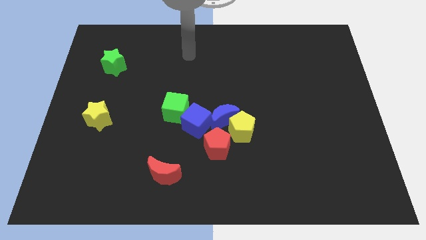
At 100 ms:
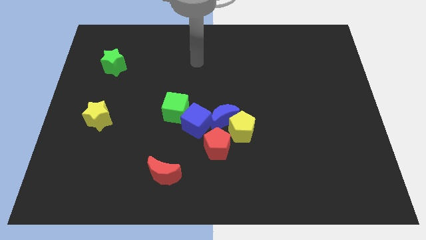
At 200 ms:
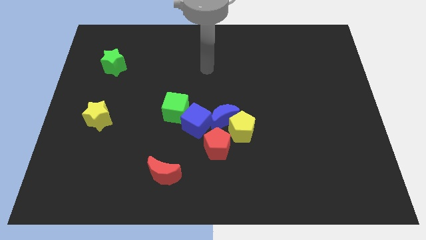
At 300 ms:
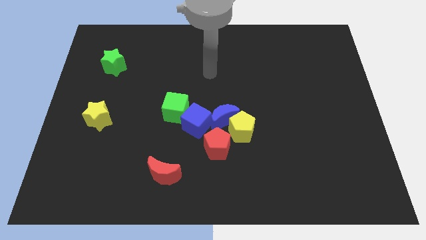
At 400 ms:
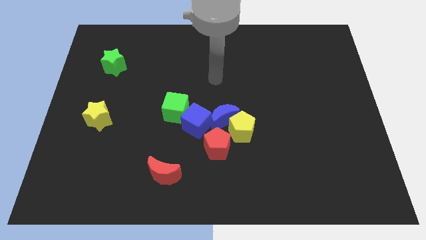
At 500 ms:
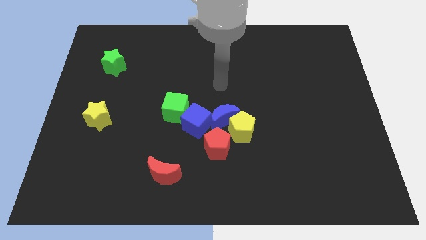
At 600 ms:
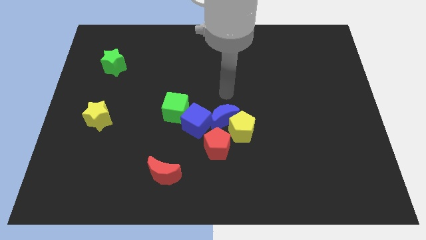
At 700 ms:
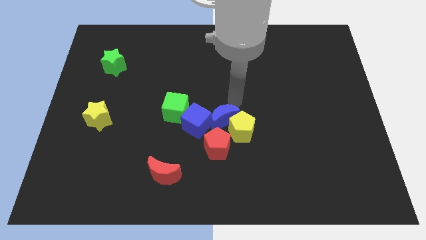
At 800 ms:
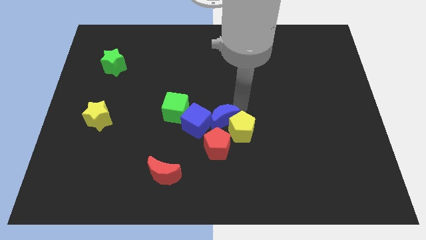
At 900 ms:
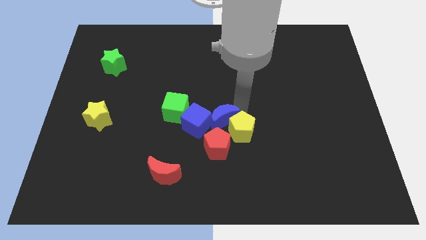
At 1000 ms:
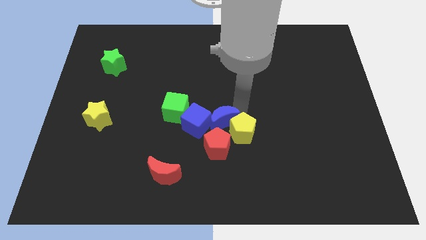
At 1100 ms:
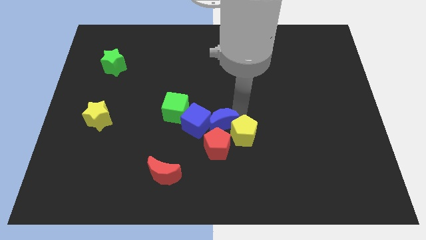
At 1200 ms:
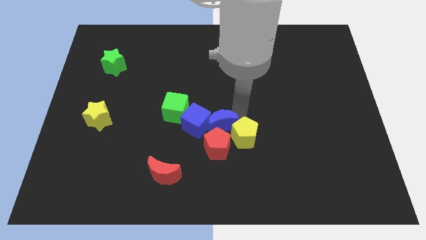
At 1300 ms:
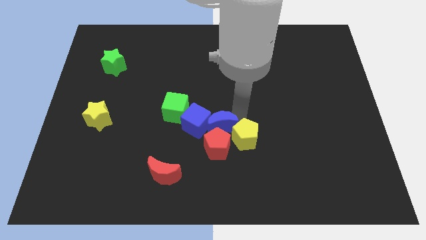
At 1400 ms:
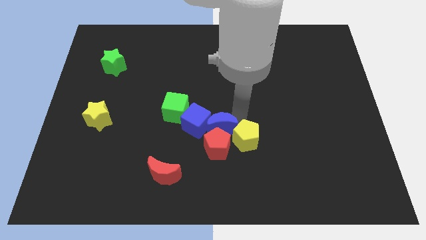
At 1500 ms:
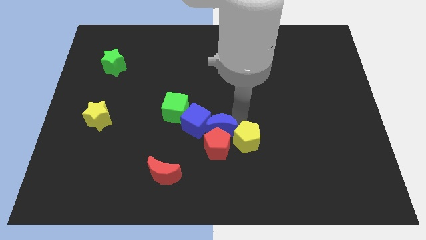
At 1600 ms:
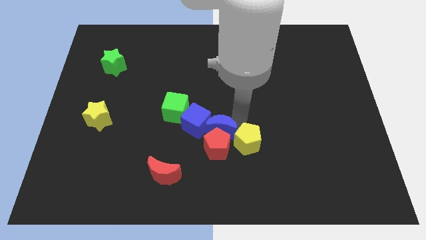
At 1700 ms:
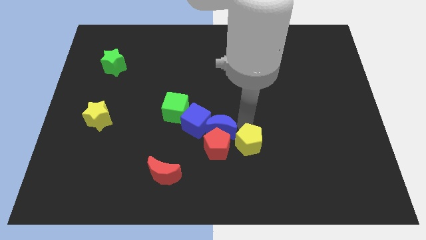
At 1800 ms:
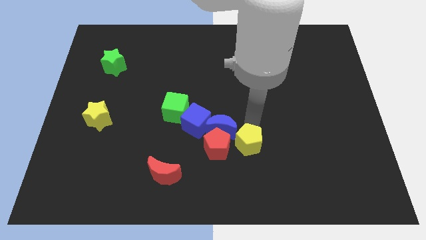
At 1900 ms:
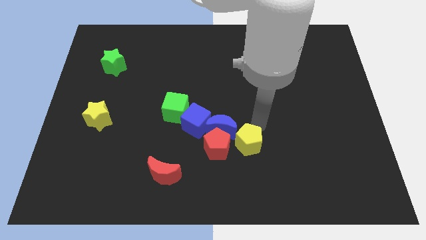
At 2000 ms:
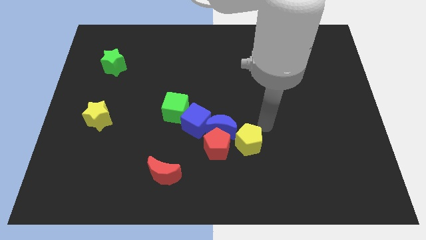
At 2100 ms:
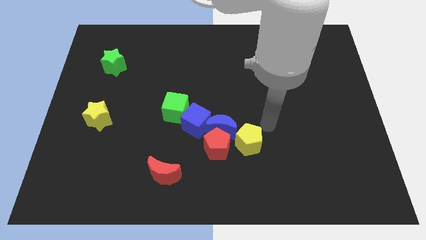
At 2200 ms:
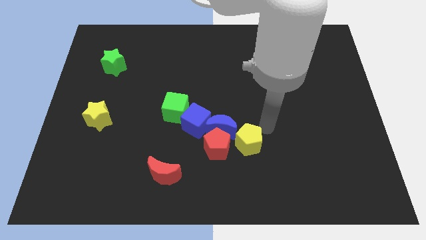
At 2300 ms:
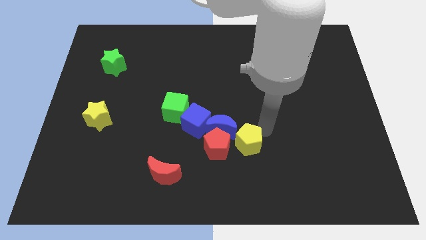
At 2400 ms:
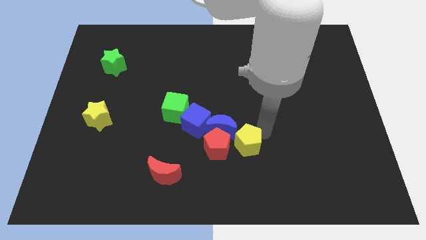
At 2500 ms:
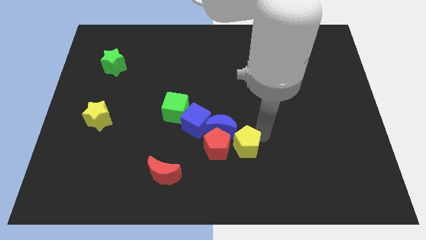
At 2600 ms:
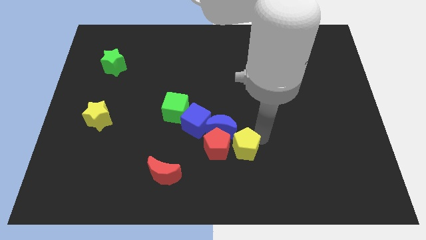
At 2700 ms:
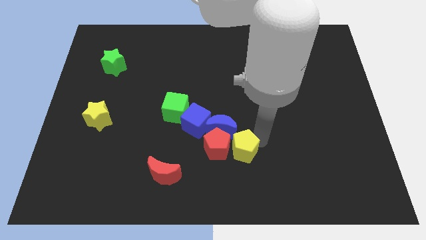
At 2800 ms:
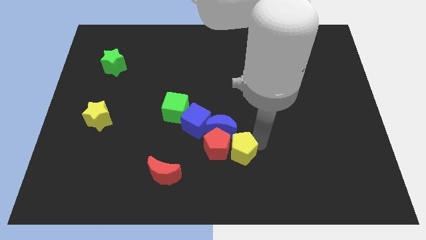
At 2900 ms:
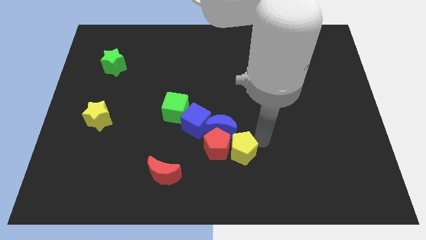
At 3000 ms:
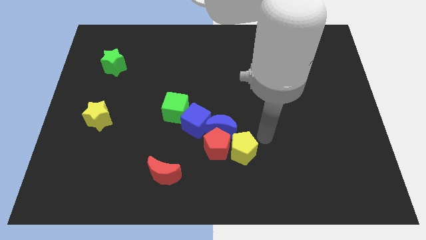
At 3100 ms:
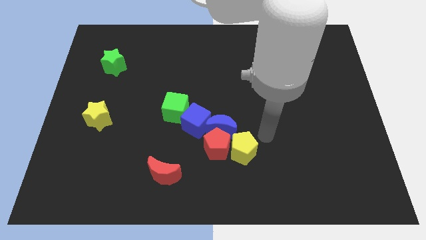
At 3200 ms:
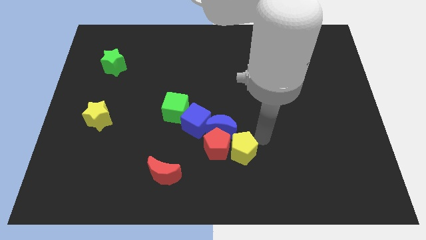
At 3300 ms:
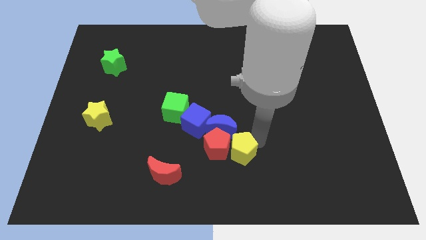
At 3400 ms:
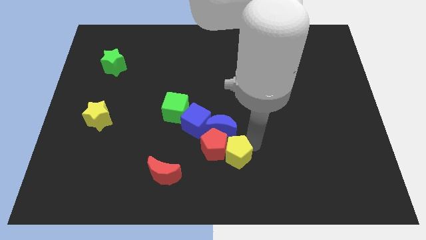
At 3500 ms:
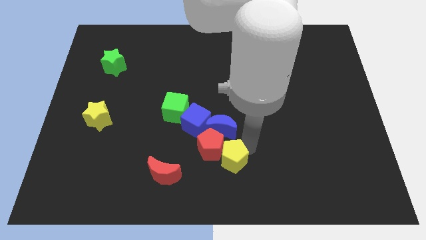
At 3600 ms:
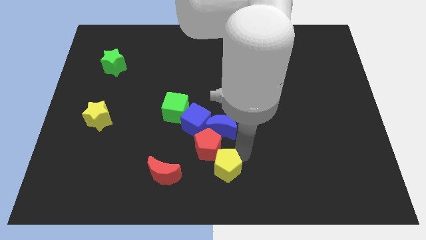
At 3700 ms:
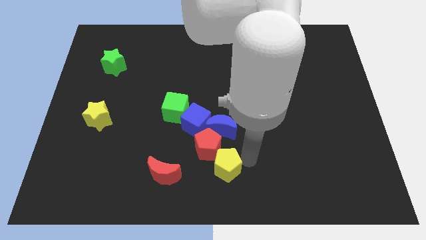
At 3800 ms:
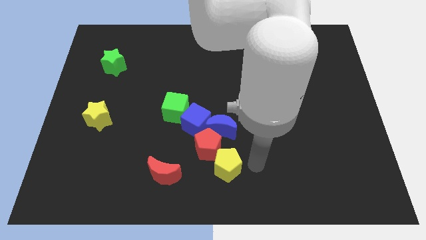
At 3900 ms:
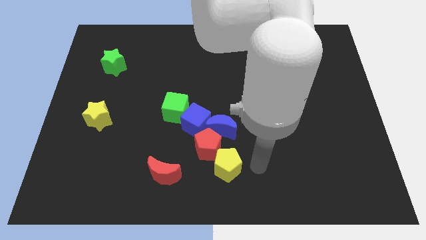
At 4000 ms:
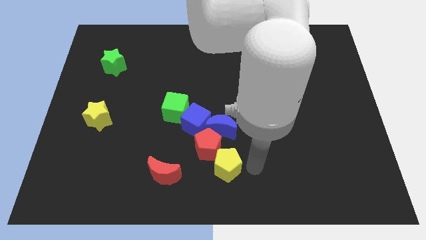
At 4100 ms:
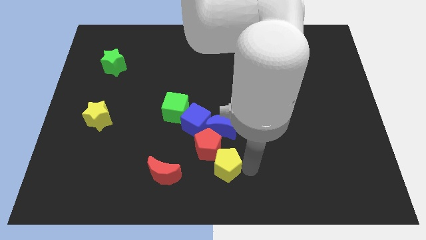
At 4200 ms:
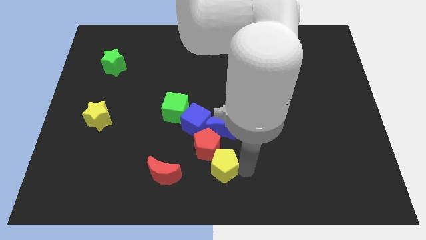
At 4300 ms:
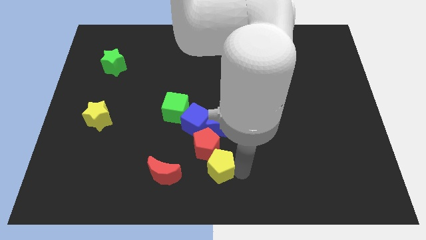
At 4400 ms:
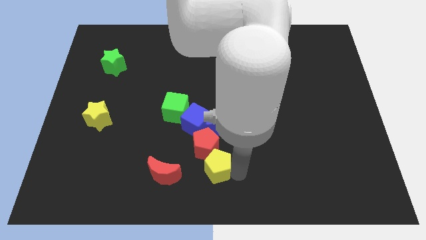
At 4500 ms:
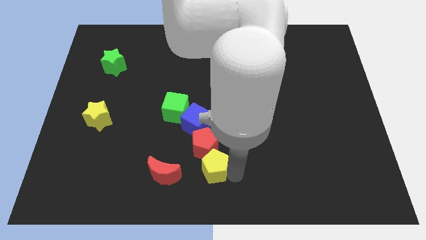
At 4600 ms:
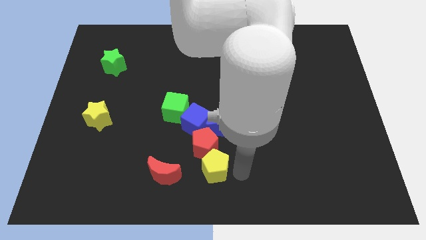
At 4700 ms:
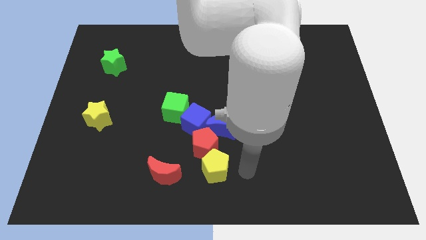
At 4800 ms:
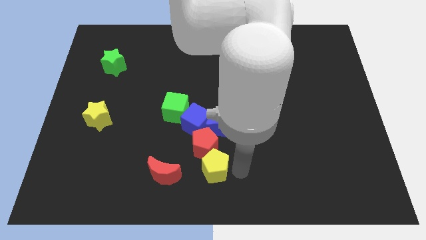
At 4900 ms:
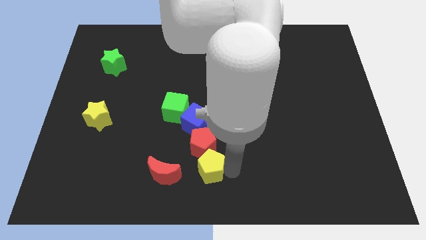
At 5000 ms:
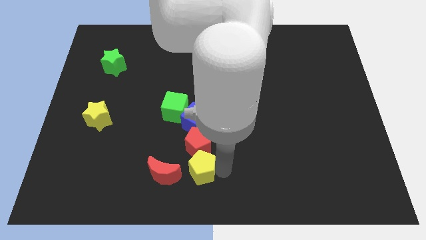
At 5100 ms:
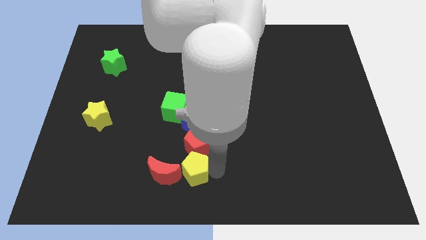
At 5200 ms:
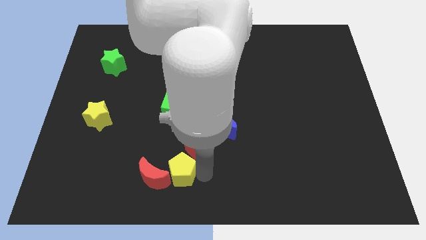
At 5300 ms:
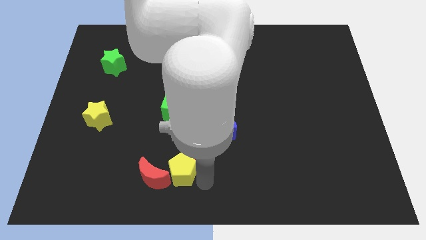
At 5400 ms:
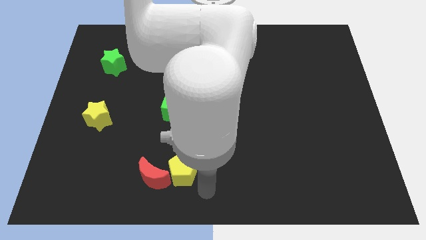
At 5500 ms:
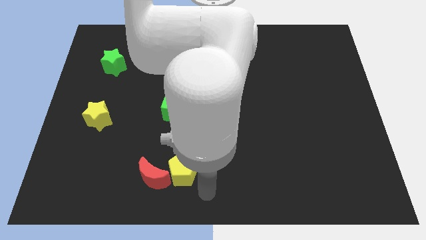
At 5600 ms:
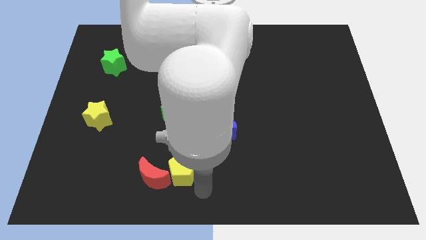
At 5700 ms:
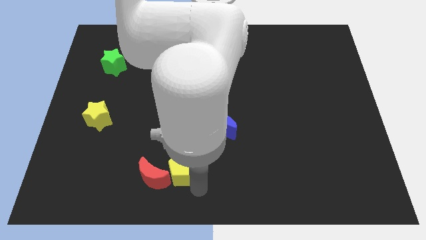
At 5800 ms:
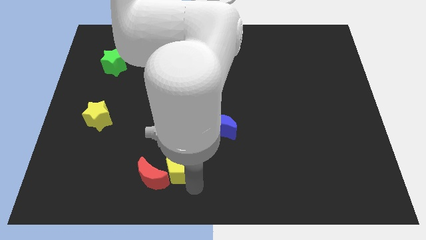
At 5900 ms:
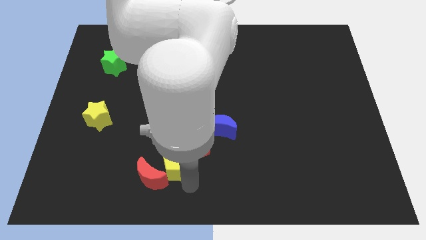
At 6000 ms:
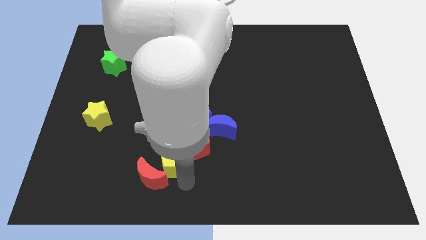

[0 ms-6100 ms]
slide the yellow pentagon just left of the red pentagon
